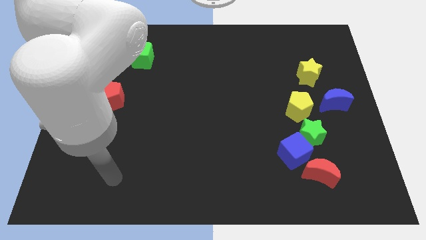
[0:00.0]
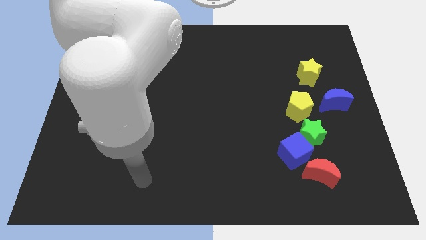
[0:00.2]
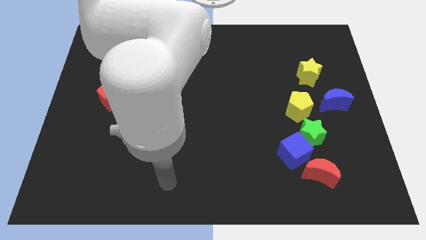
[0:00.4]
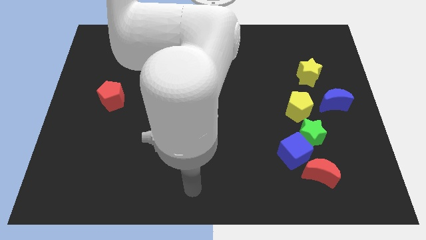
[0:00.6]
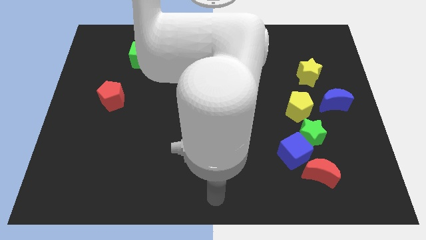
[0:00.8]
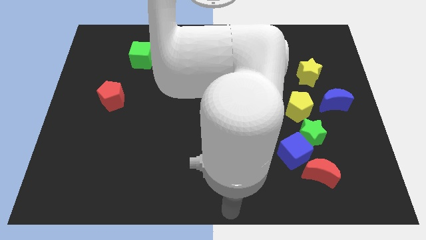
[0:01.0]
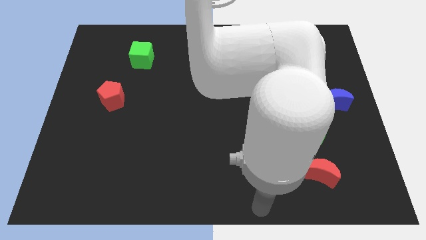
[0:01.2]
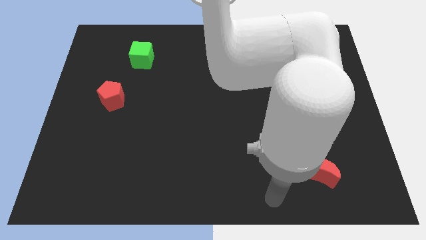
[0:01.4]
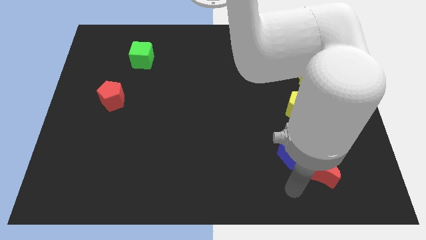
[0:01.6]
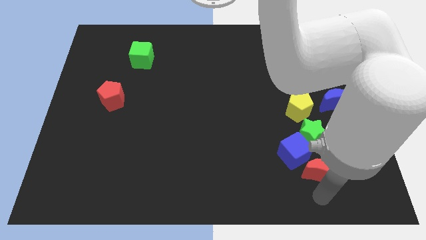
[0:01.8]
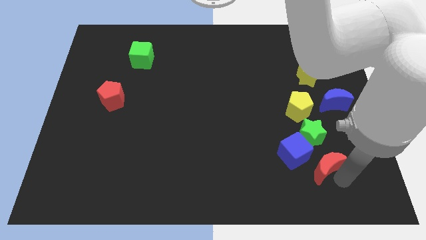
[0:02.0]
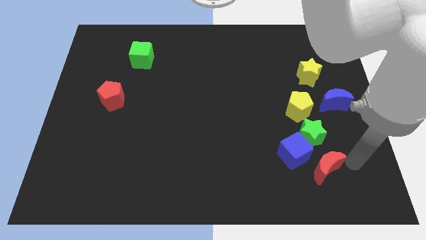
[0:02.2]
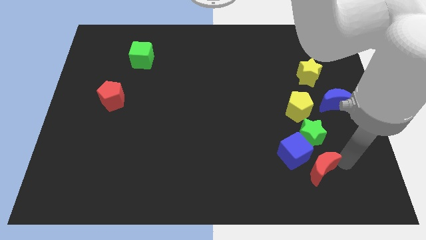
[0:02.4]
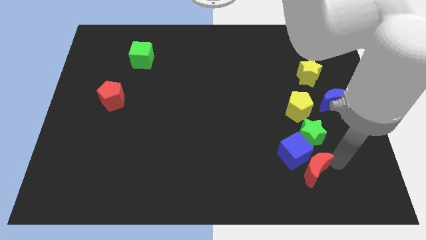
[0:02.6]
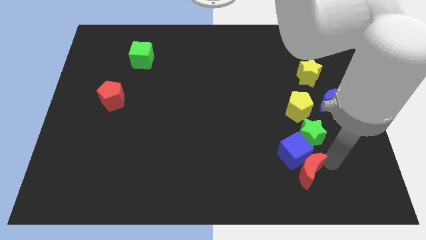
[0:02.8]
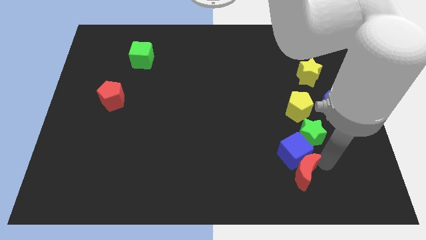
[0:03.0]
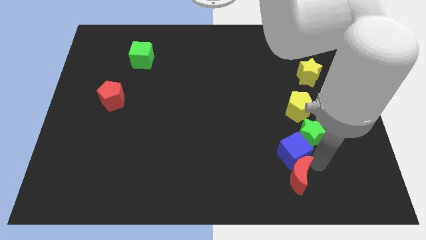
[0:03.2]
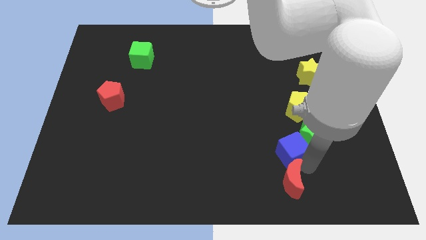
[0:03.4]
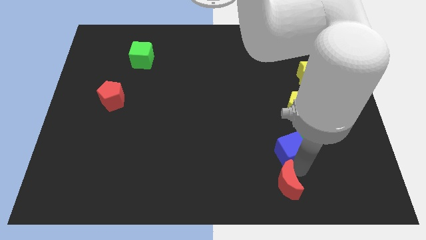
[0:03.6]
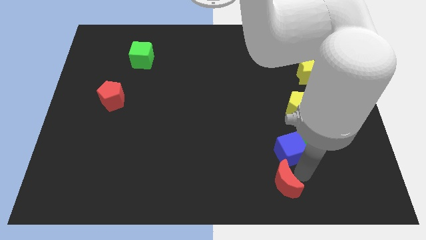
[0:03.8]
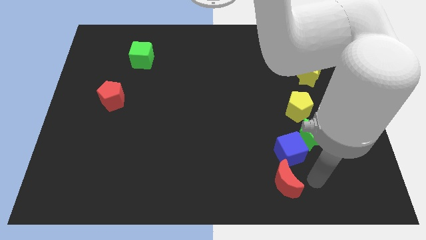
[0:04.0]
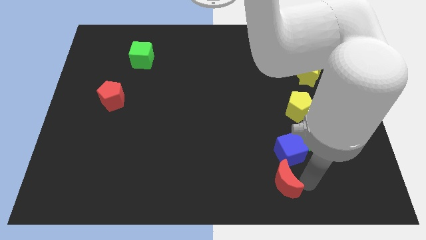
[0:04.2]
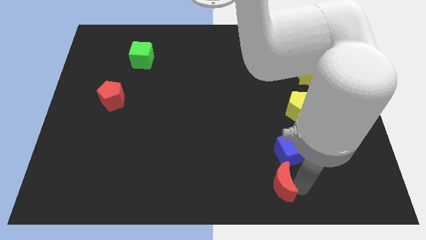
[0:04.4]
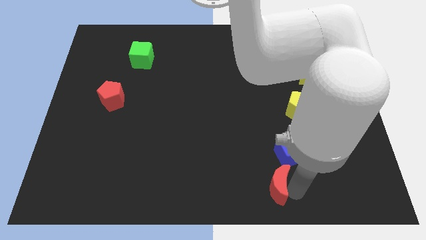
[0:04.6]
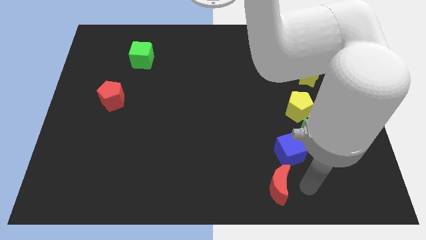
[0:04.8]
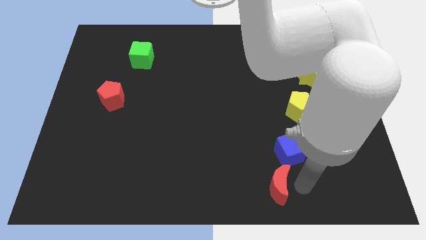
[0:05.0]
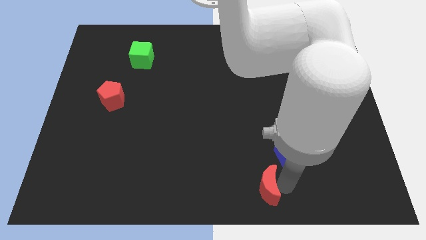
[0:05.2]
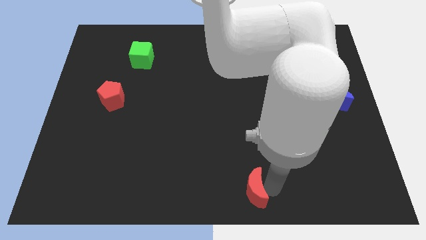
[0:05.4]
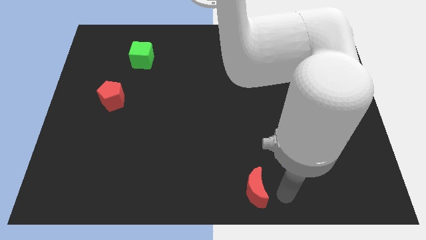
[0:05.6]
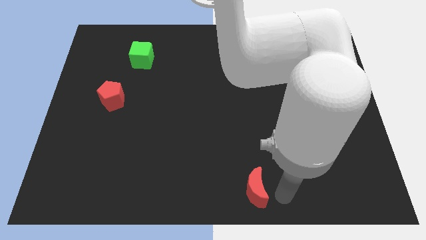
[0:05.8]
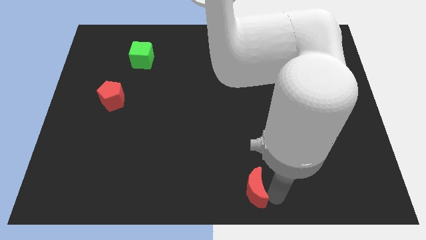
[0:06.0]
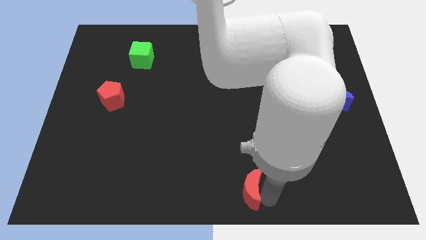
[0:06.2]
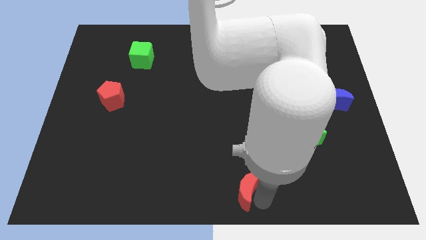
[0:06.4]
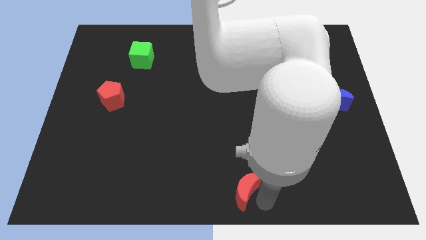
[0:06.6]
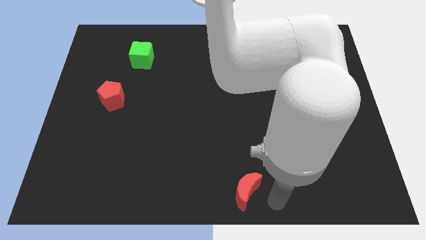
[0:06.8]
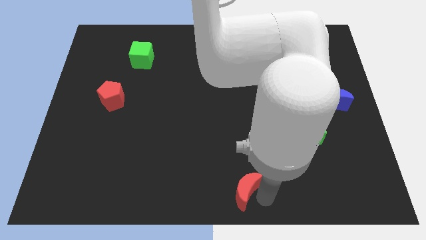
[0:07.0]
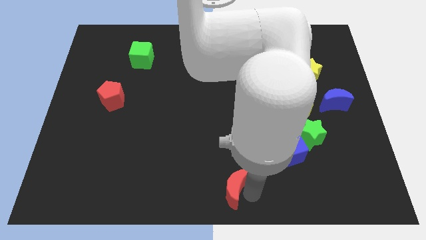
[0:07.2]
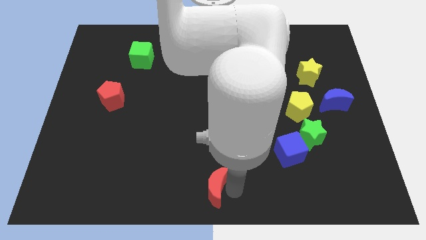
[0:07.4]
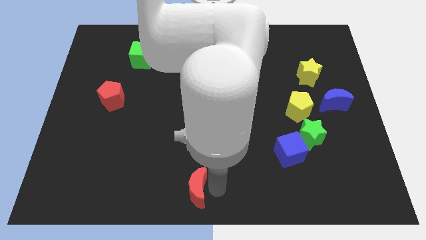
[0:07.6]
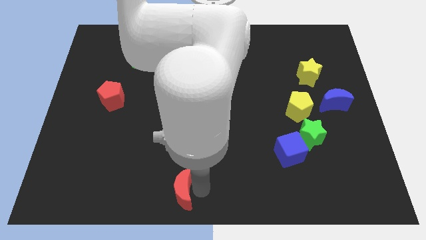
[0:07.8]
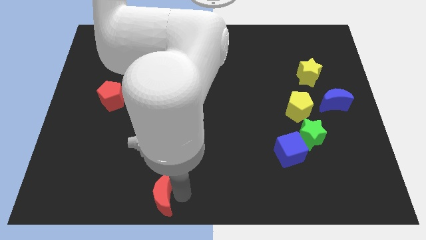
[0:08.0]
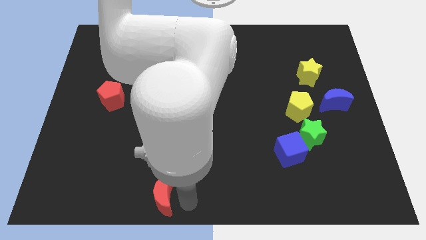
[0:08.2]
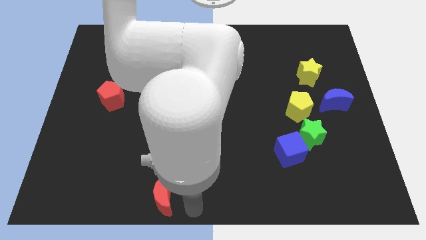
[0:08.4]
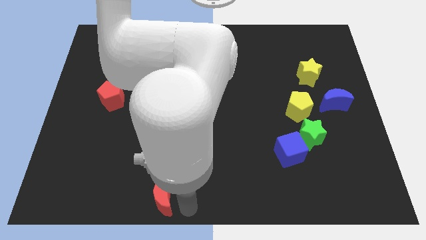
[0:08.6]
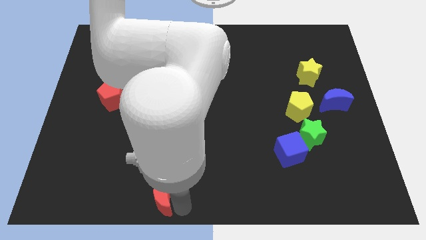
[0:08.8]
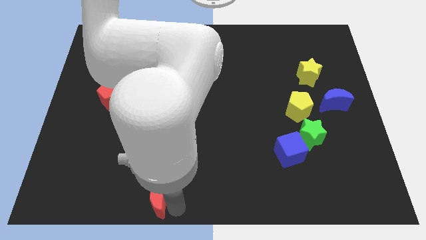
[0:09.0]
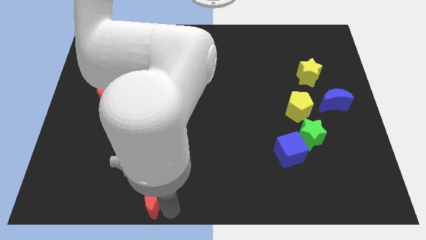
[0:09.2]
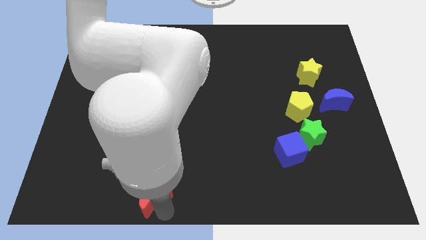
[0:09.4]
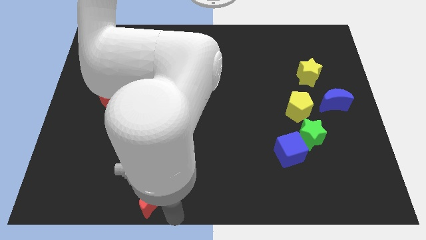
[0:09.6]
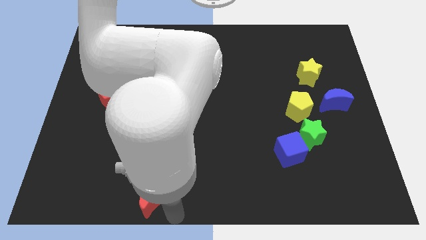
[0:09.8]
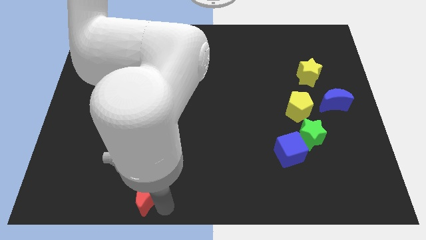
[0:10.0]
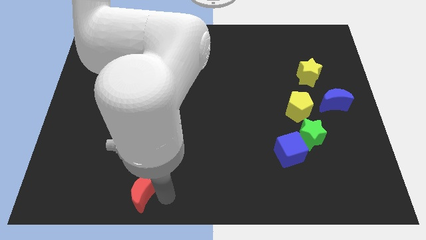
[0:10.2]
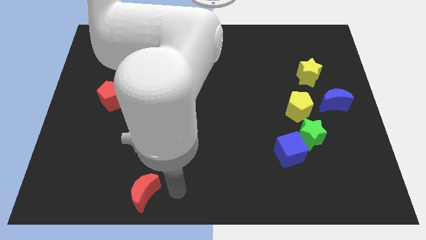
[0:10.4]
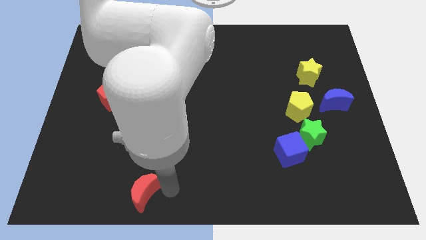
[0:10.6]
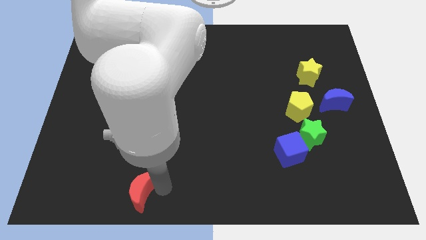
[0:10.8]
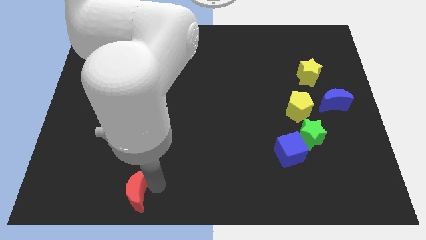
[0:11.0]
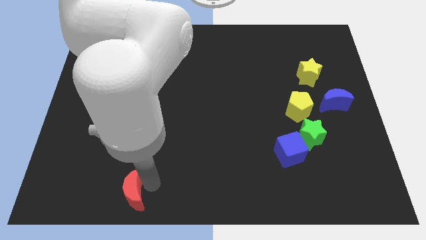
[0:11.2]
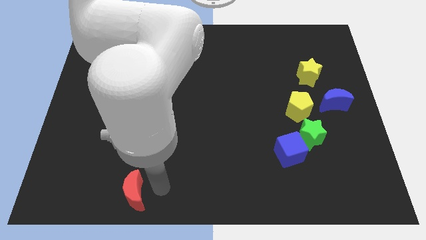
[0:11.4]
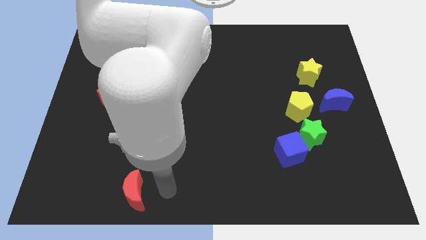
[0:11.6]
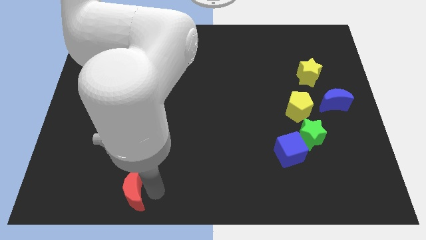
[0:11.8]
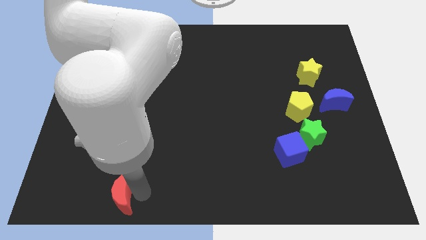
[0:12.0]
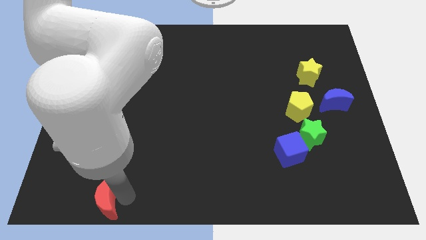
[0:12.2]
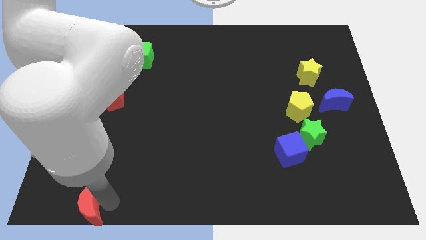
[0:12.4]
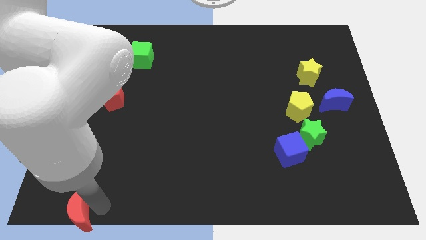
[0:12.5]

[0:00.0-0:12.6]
move the red moon to the lower left corner

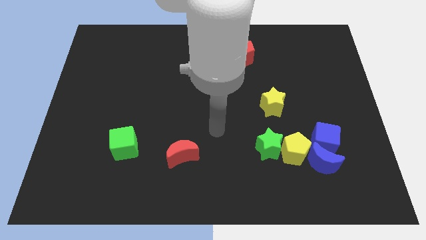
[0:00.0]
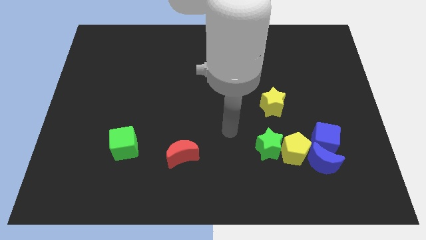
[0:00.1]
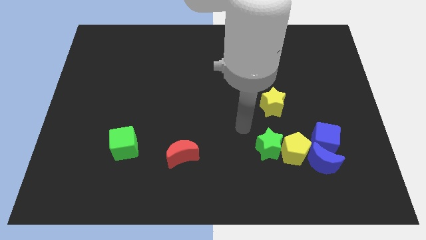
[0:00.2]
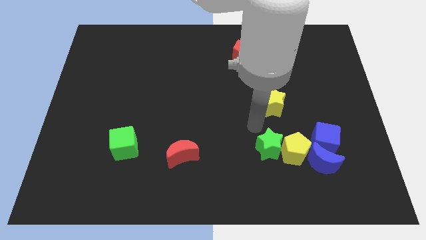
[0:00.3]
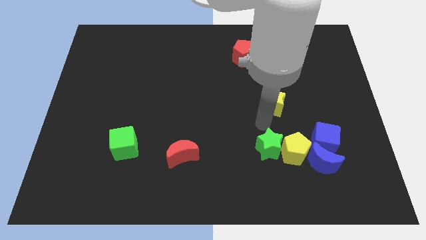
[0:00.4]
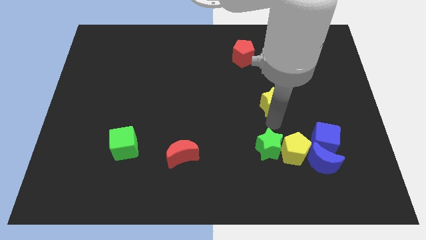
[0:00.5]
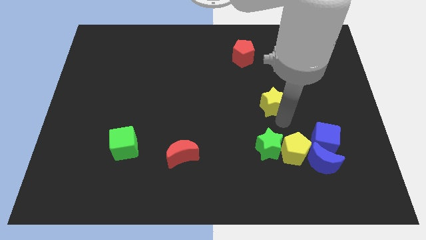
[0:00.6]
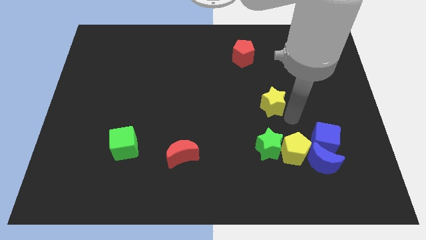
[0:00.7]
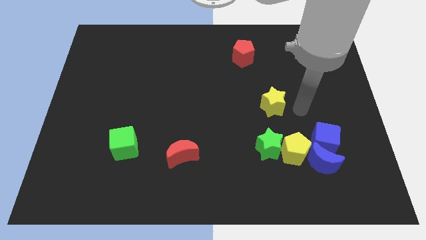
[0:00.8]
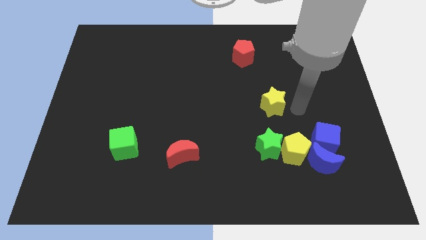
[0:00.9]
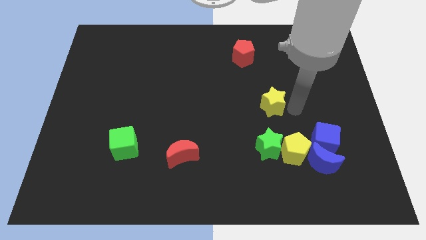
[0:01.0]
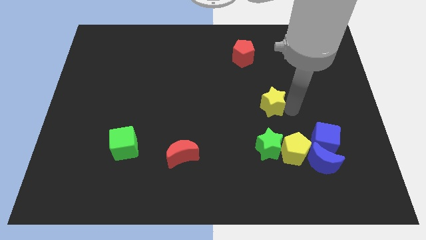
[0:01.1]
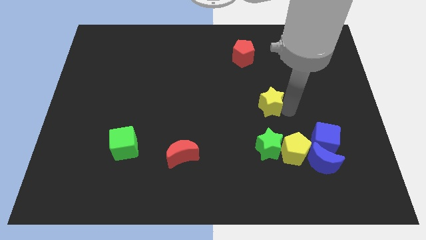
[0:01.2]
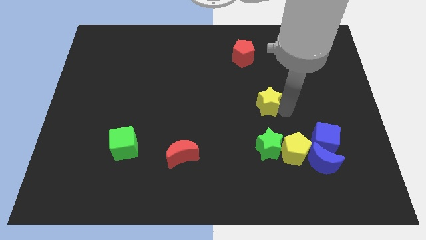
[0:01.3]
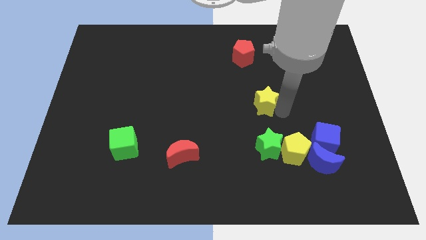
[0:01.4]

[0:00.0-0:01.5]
move the yellow star to the middle of the board
